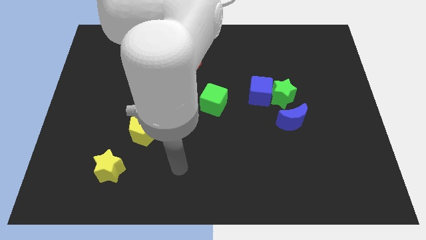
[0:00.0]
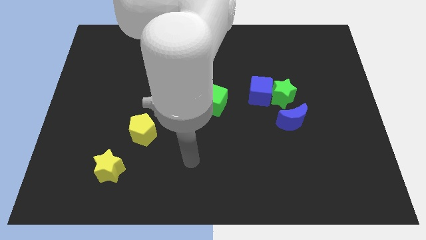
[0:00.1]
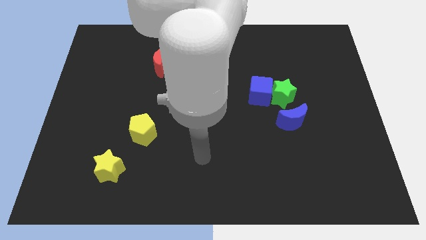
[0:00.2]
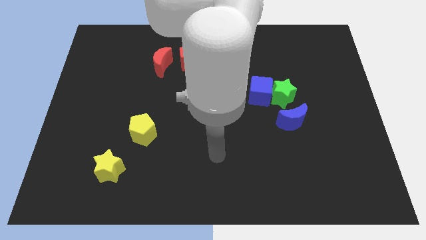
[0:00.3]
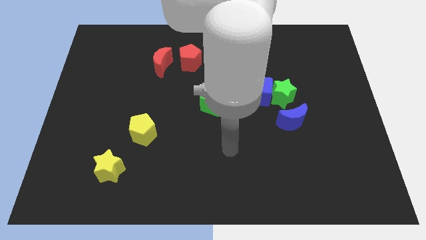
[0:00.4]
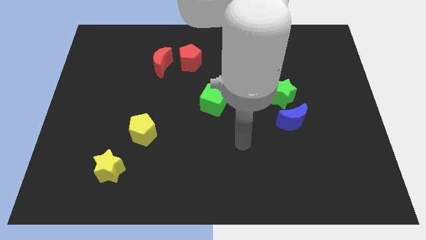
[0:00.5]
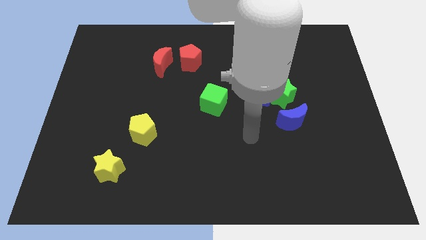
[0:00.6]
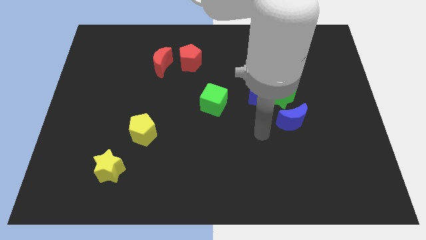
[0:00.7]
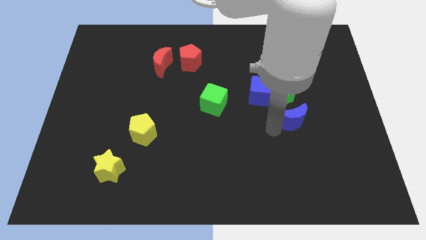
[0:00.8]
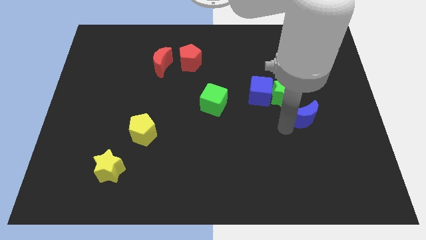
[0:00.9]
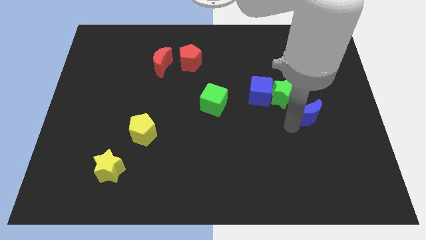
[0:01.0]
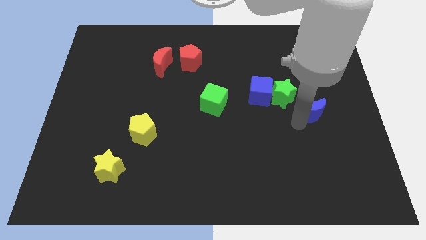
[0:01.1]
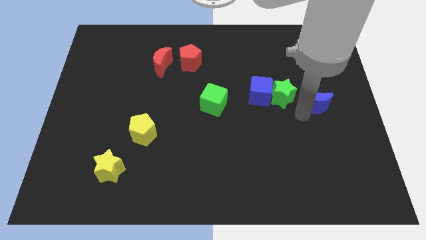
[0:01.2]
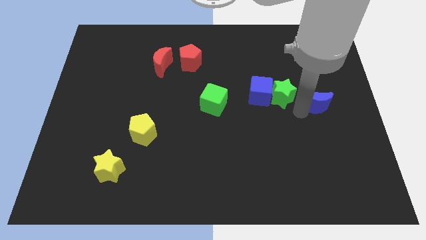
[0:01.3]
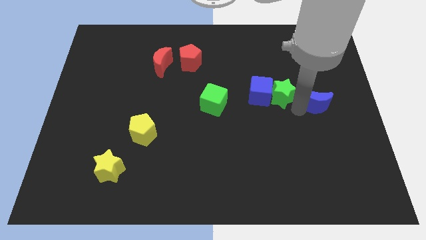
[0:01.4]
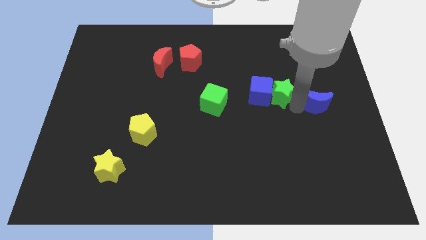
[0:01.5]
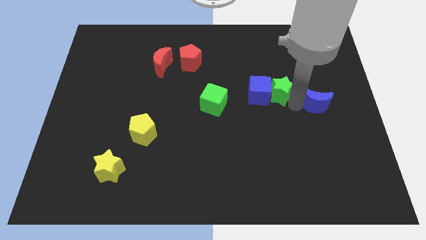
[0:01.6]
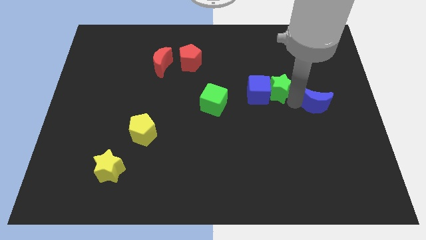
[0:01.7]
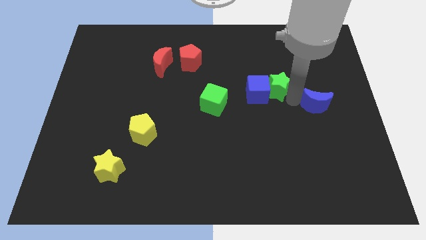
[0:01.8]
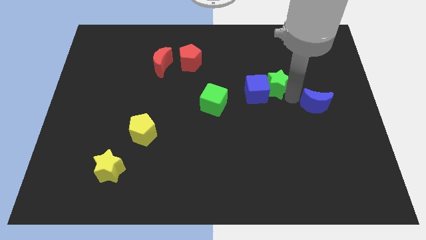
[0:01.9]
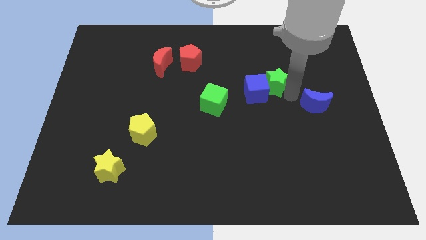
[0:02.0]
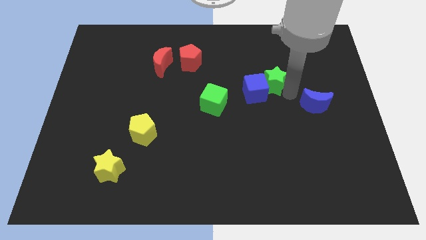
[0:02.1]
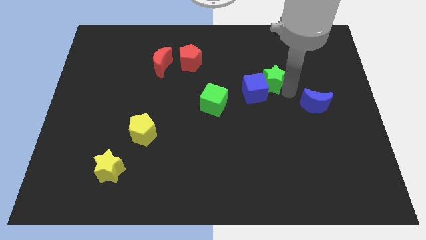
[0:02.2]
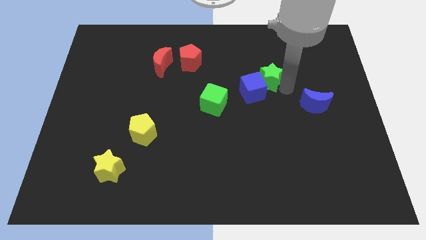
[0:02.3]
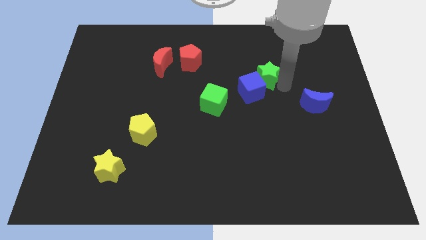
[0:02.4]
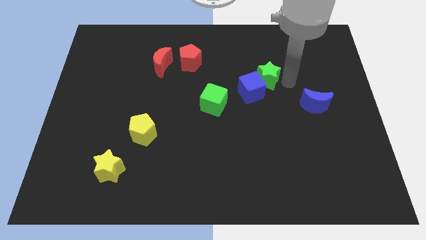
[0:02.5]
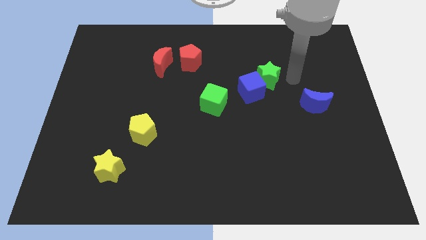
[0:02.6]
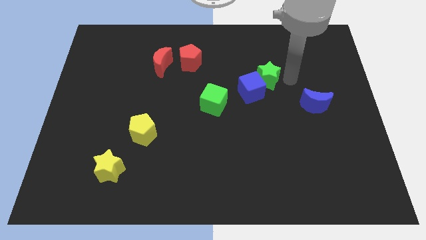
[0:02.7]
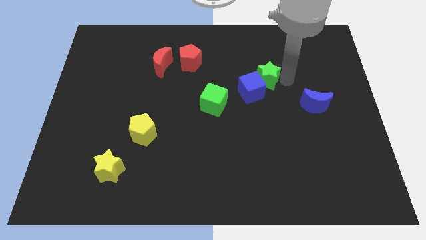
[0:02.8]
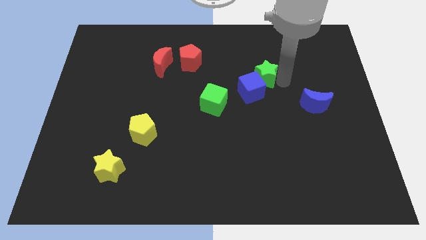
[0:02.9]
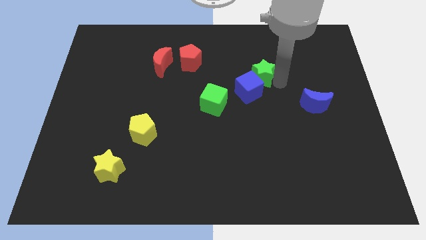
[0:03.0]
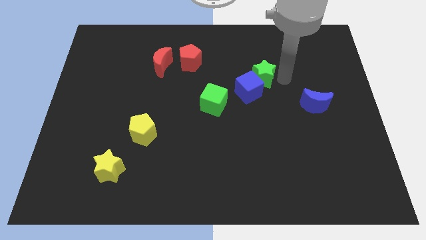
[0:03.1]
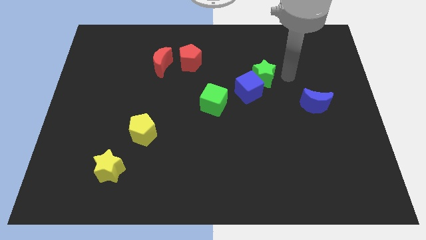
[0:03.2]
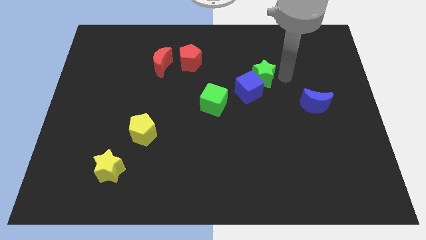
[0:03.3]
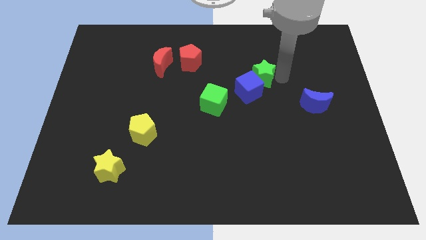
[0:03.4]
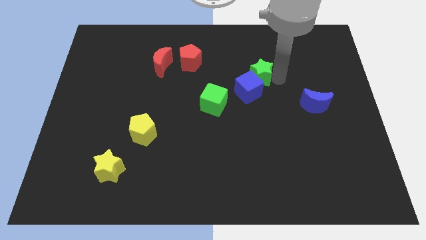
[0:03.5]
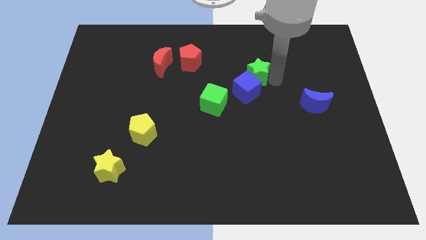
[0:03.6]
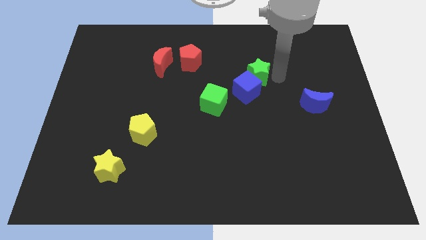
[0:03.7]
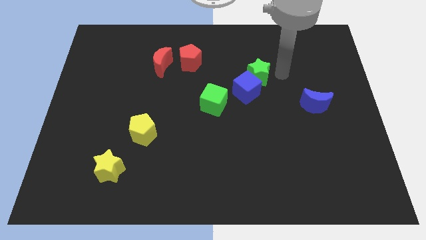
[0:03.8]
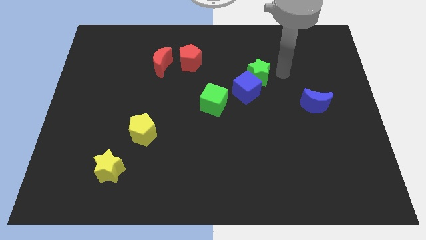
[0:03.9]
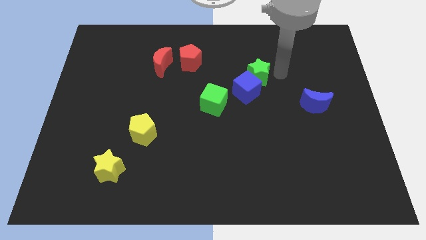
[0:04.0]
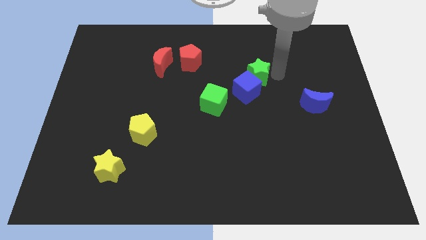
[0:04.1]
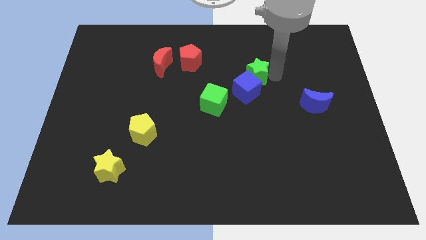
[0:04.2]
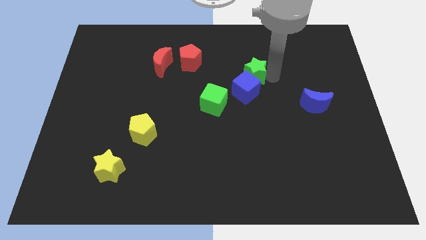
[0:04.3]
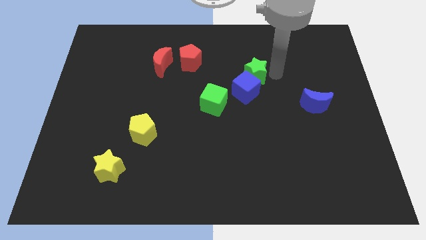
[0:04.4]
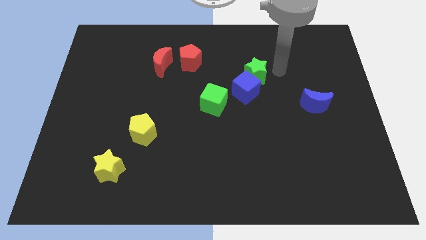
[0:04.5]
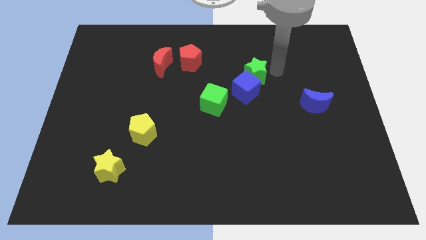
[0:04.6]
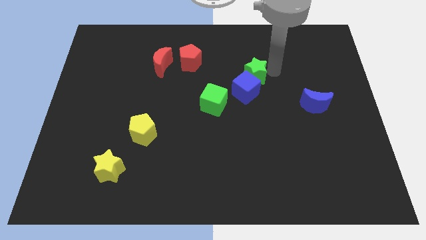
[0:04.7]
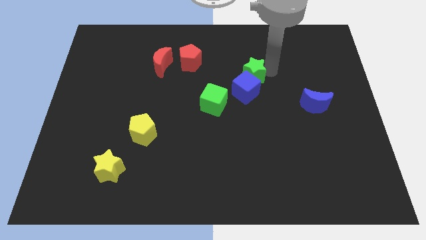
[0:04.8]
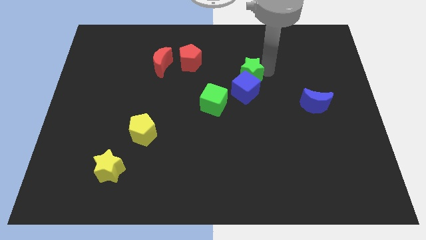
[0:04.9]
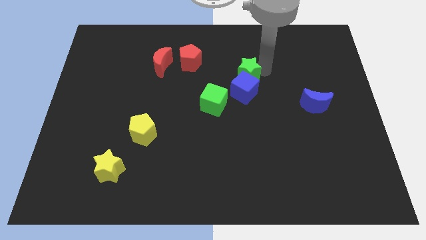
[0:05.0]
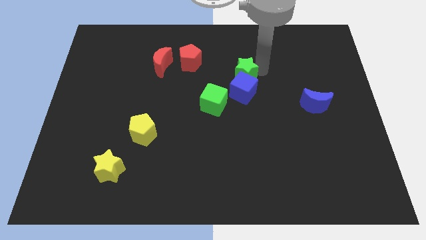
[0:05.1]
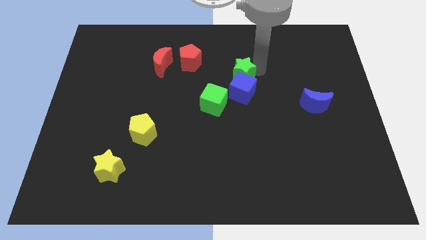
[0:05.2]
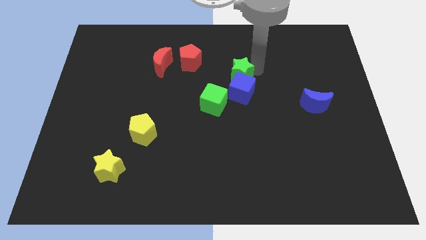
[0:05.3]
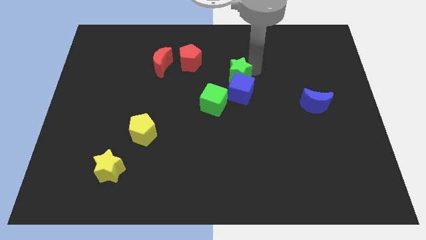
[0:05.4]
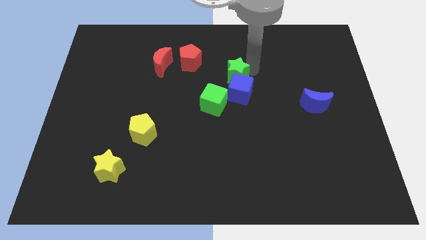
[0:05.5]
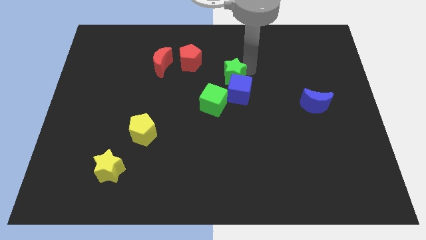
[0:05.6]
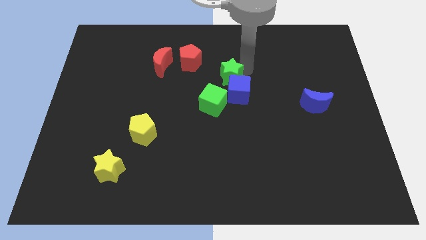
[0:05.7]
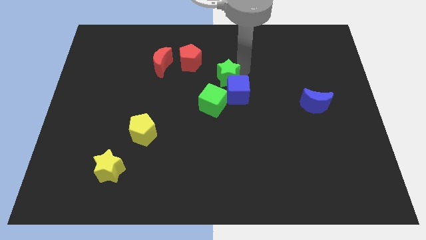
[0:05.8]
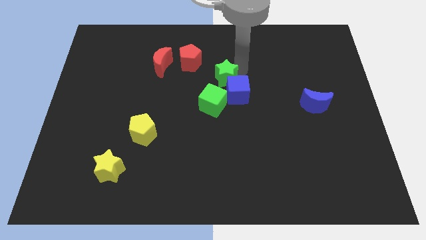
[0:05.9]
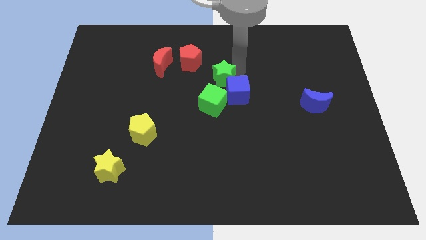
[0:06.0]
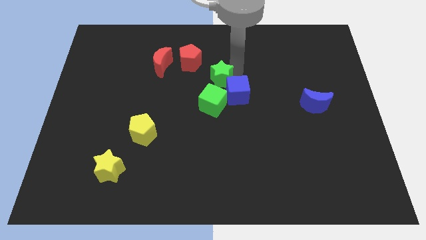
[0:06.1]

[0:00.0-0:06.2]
move the green star left of the blue cube

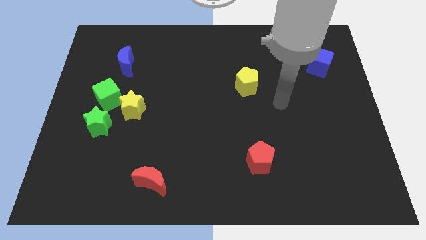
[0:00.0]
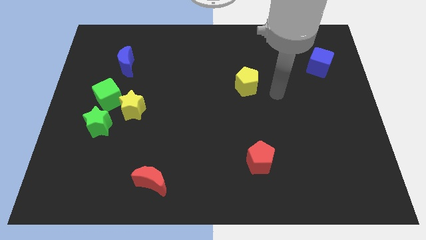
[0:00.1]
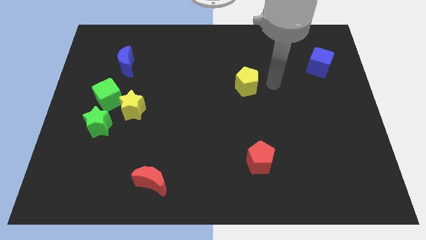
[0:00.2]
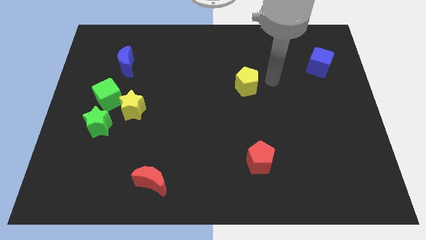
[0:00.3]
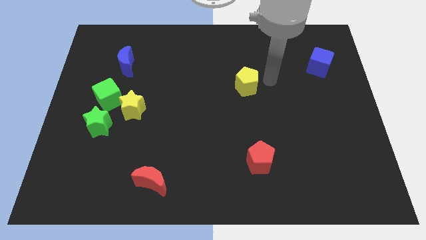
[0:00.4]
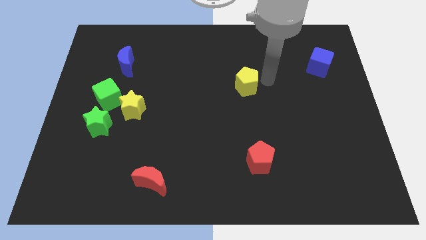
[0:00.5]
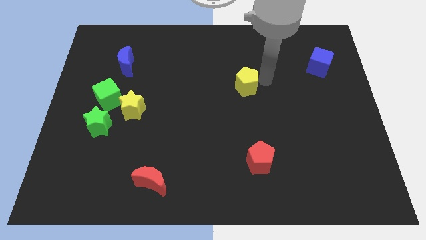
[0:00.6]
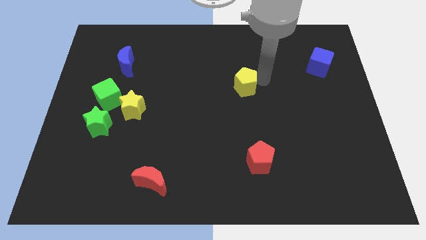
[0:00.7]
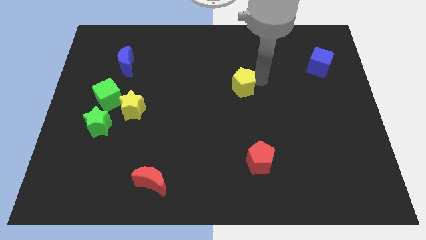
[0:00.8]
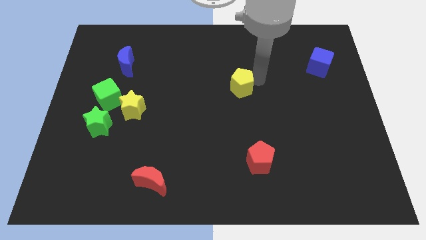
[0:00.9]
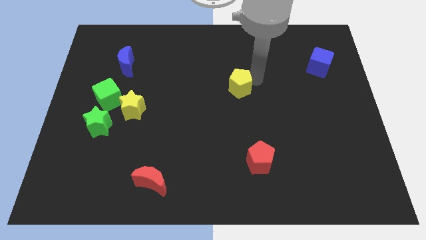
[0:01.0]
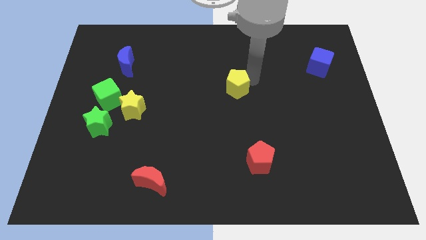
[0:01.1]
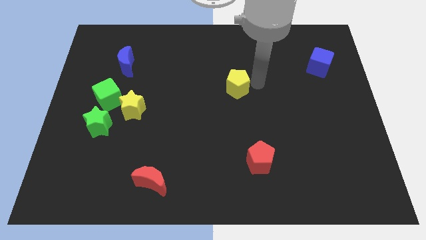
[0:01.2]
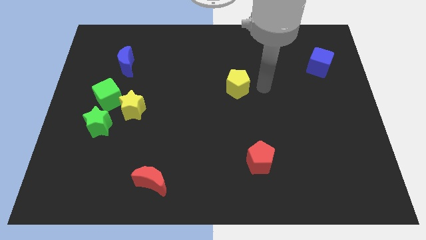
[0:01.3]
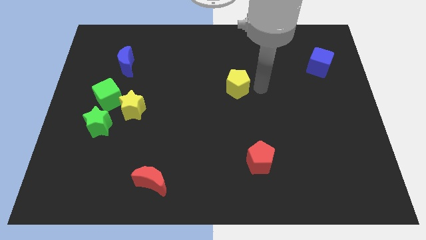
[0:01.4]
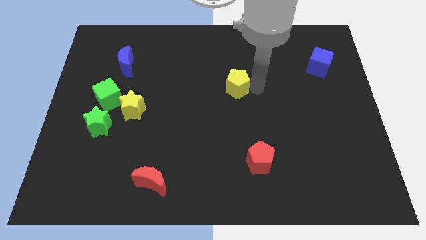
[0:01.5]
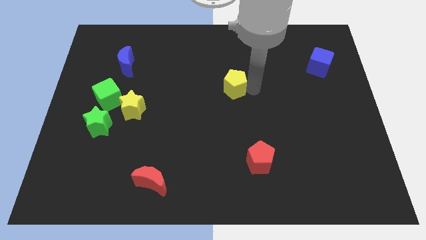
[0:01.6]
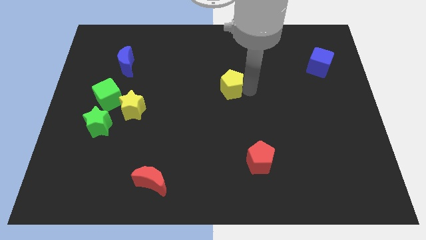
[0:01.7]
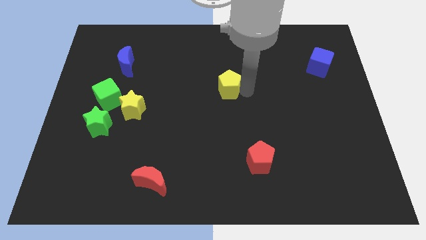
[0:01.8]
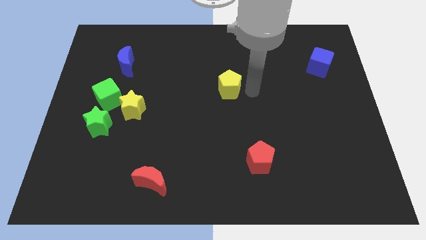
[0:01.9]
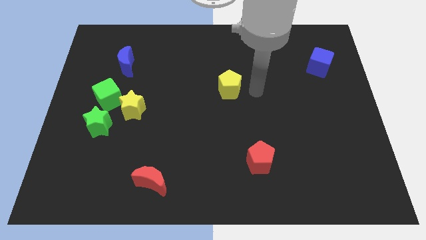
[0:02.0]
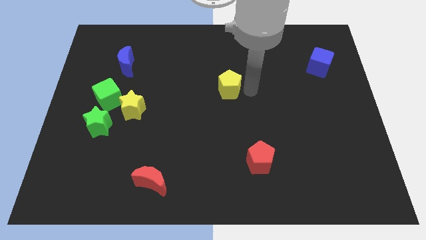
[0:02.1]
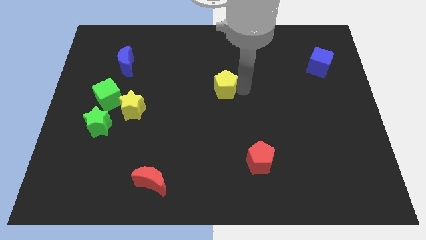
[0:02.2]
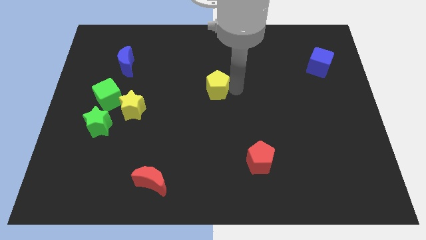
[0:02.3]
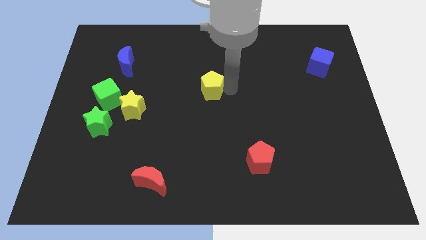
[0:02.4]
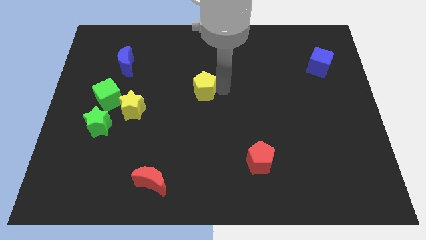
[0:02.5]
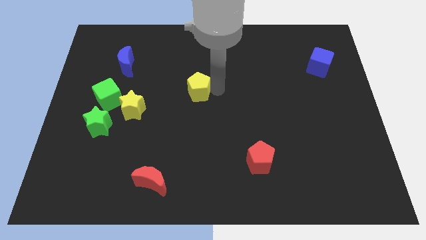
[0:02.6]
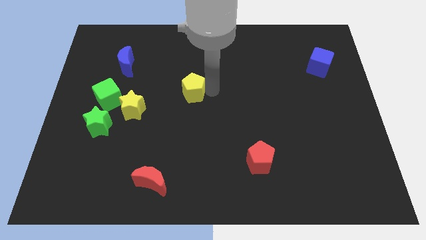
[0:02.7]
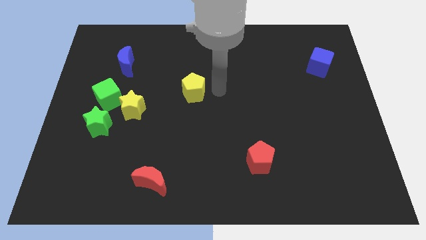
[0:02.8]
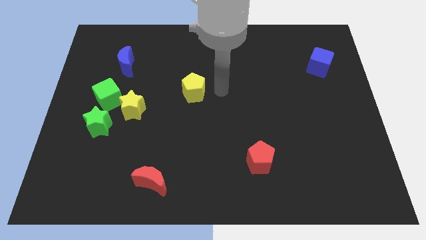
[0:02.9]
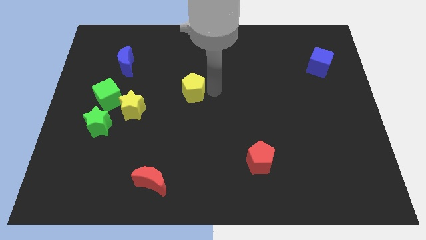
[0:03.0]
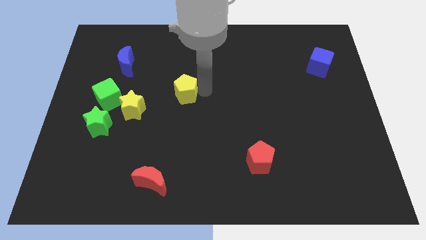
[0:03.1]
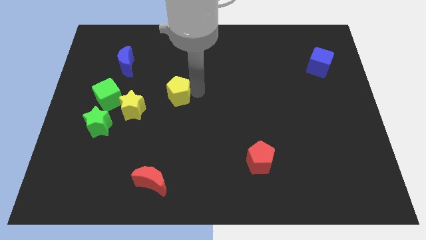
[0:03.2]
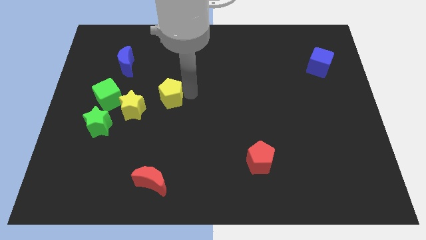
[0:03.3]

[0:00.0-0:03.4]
push the yellow pentagon diagonally up and to the right of the yellow star
